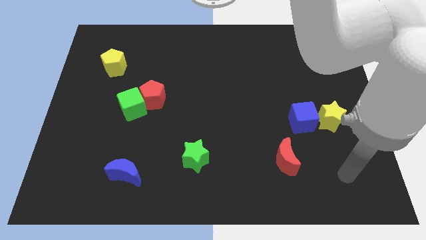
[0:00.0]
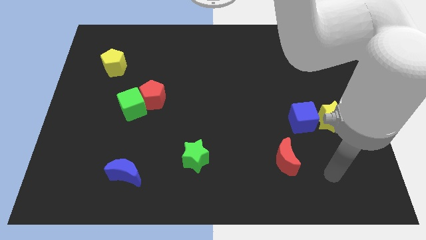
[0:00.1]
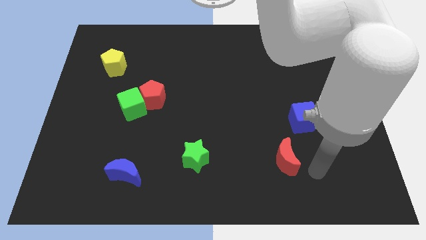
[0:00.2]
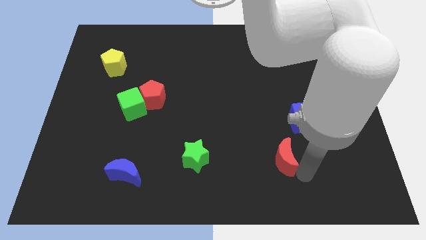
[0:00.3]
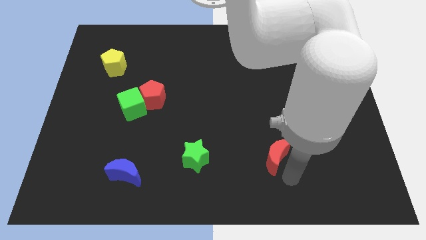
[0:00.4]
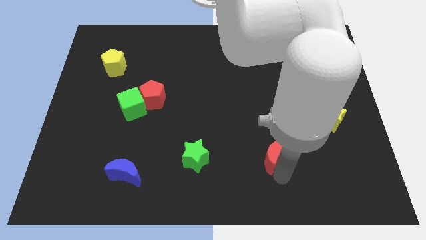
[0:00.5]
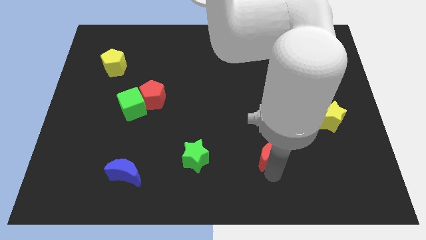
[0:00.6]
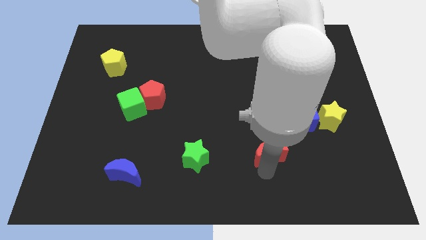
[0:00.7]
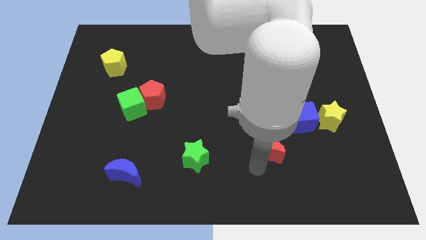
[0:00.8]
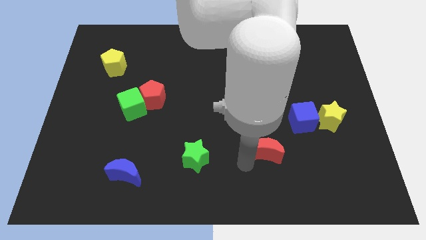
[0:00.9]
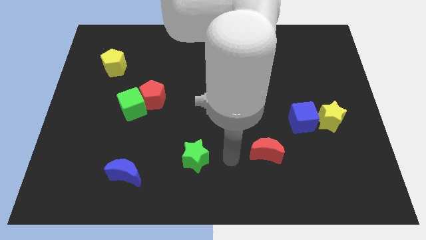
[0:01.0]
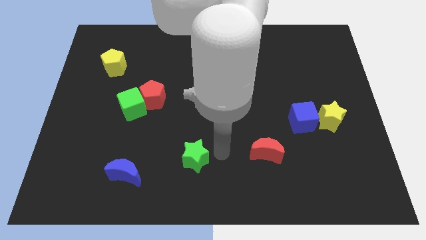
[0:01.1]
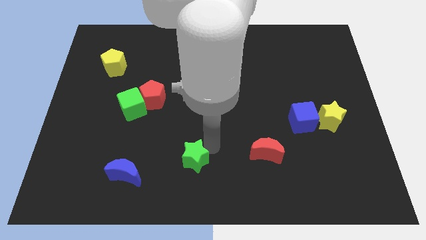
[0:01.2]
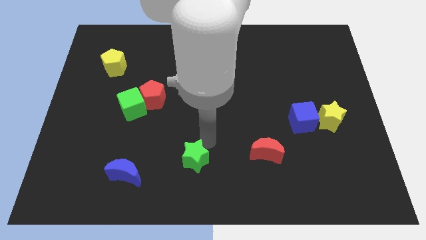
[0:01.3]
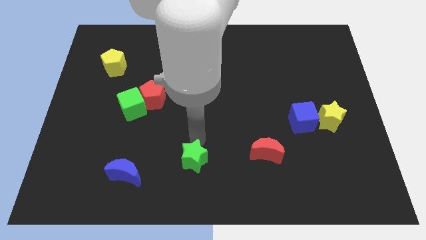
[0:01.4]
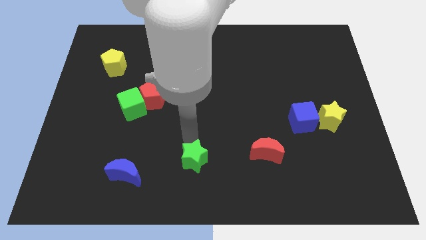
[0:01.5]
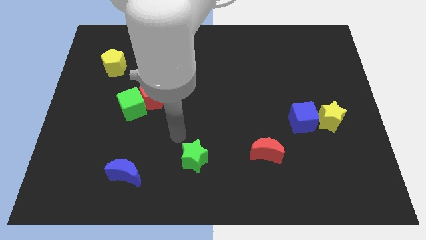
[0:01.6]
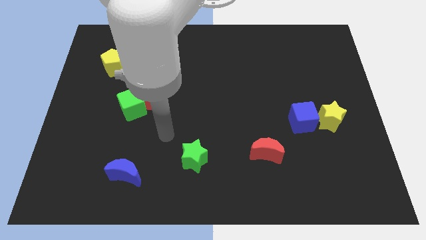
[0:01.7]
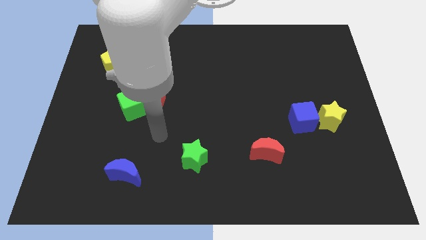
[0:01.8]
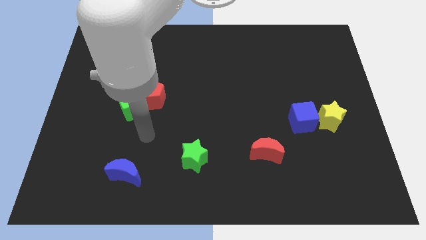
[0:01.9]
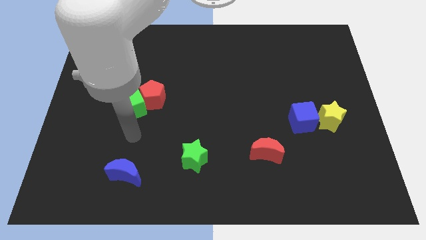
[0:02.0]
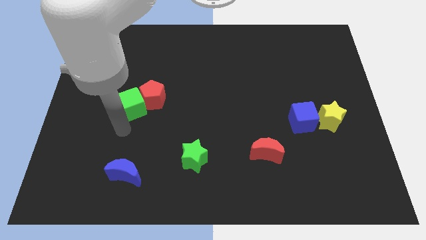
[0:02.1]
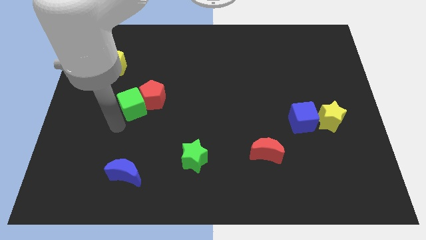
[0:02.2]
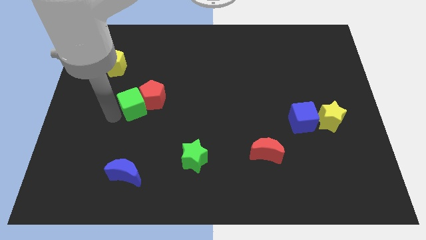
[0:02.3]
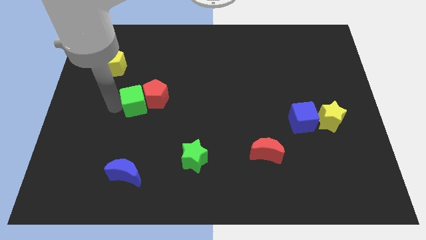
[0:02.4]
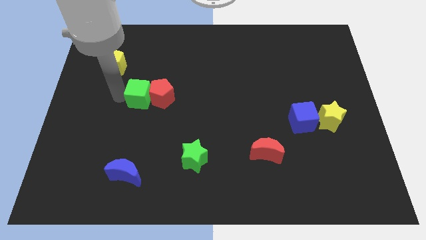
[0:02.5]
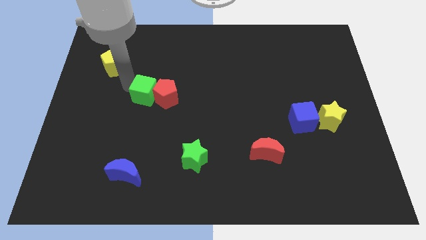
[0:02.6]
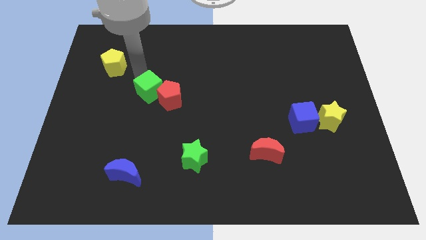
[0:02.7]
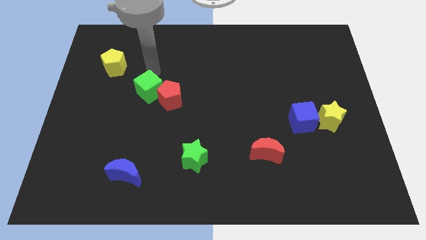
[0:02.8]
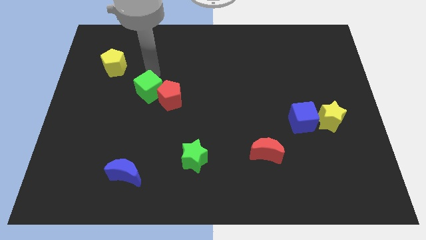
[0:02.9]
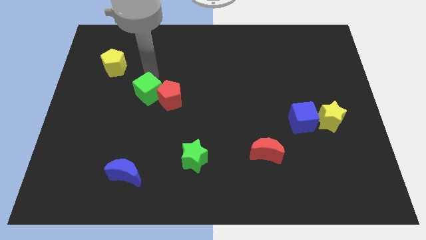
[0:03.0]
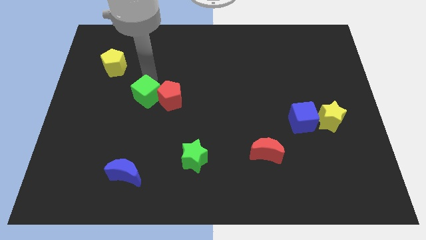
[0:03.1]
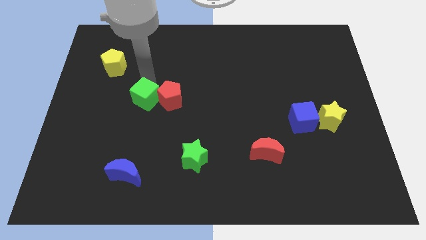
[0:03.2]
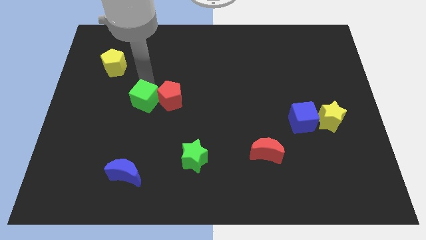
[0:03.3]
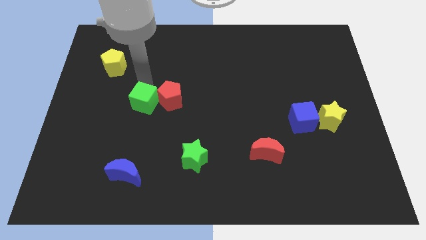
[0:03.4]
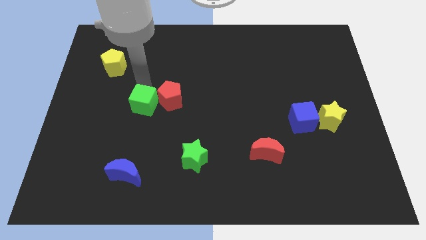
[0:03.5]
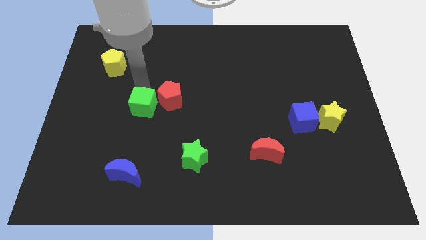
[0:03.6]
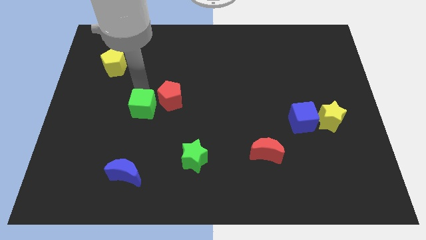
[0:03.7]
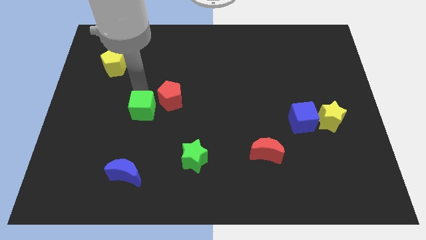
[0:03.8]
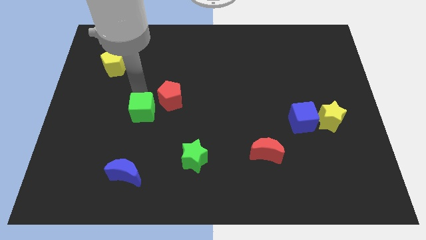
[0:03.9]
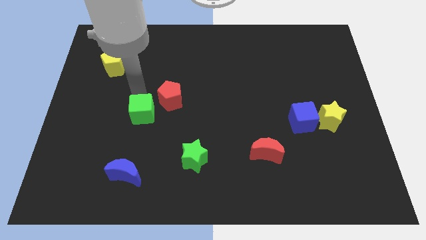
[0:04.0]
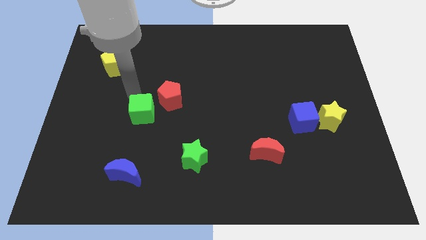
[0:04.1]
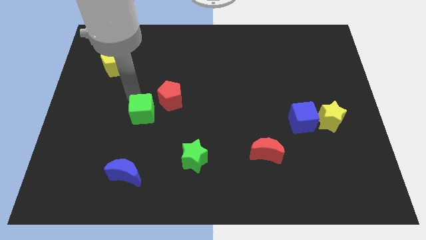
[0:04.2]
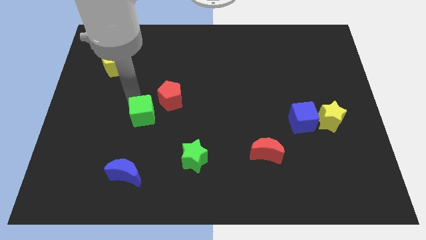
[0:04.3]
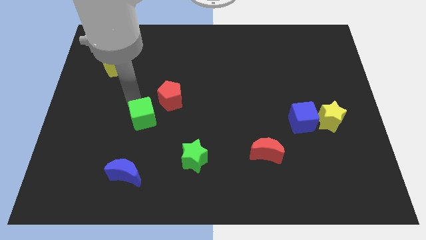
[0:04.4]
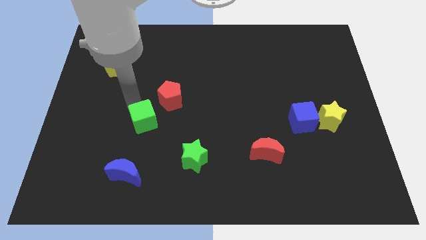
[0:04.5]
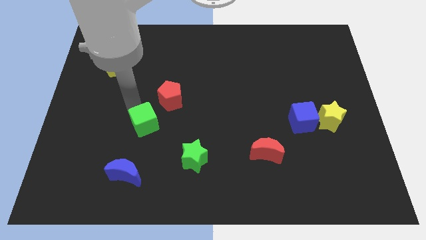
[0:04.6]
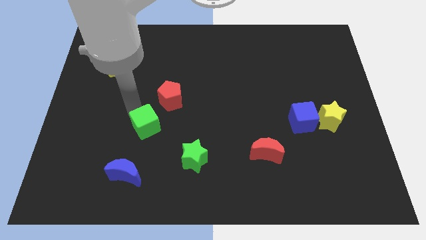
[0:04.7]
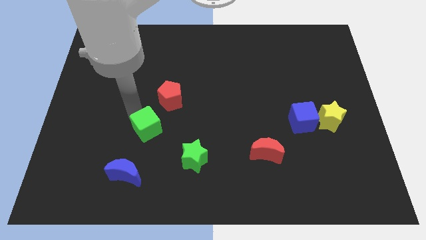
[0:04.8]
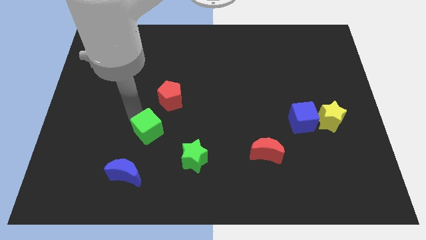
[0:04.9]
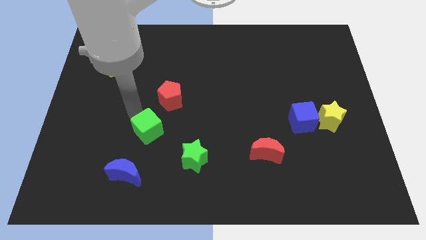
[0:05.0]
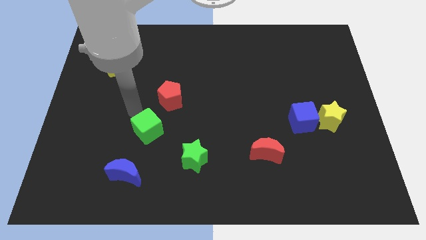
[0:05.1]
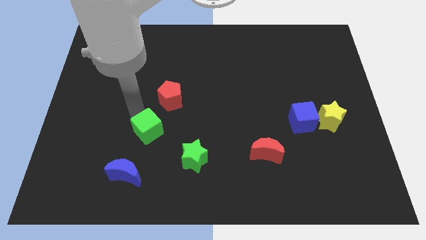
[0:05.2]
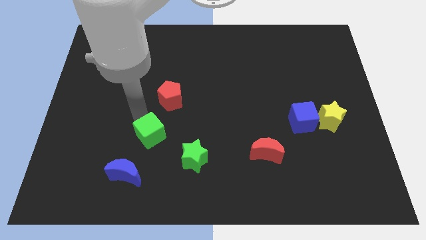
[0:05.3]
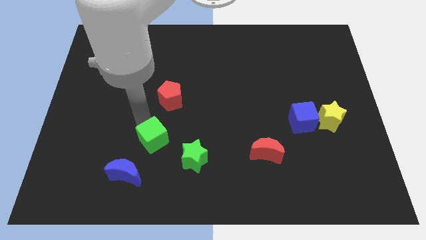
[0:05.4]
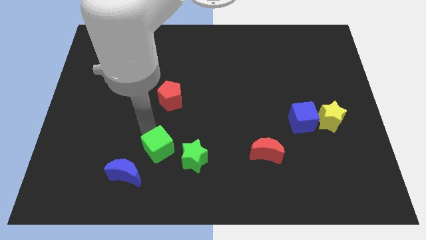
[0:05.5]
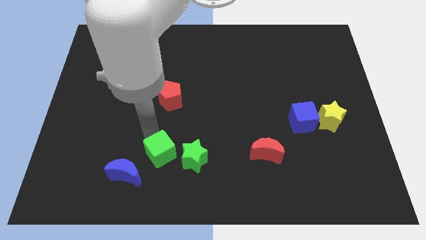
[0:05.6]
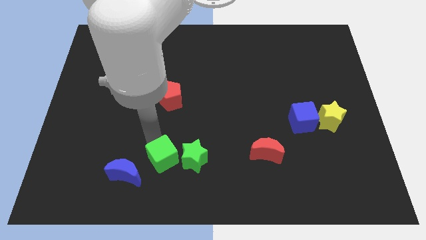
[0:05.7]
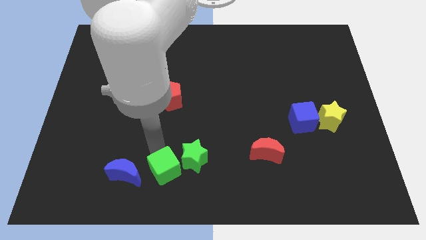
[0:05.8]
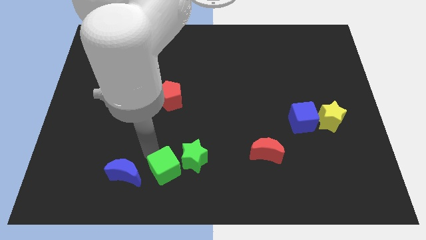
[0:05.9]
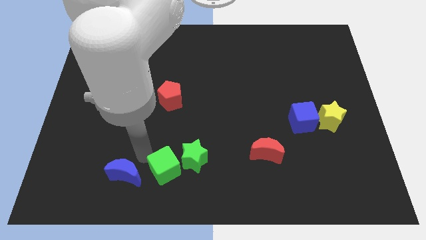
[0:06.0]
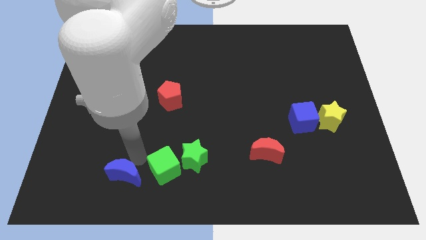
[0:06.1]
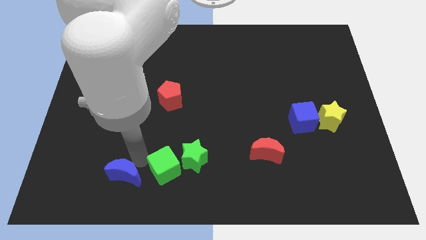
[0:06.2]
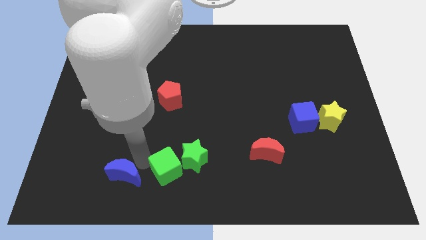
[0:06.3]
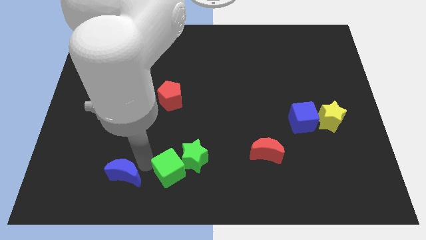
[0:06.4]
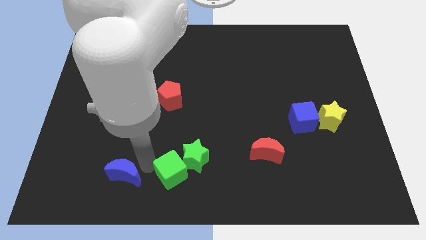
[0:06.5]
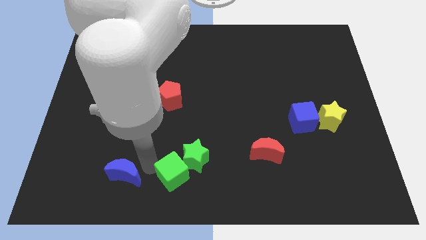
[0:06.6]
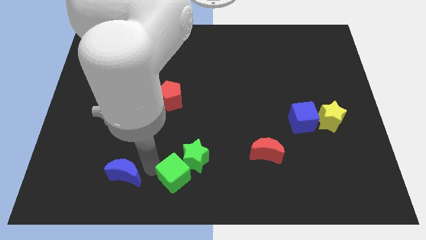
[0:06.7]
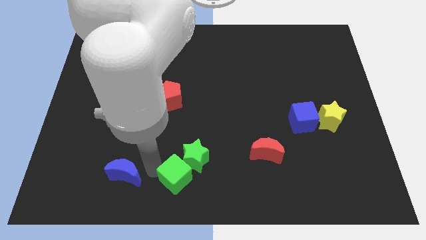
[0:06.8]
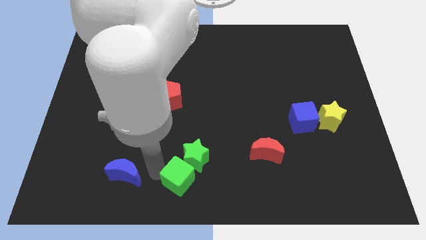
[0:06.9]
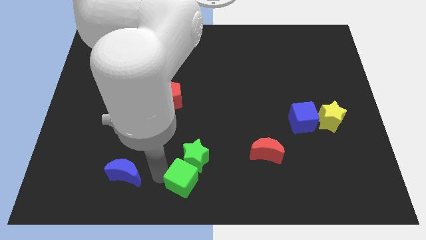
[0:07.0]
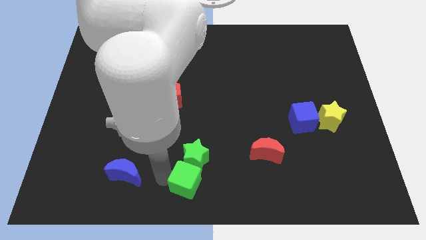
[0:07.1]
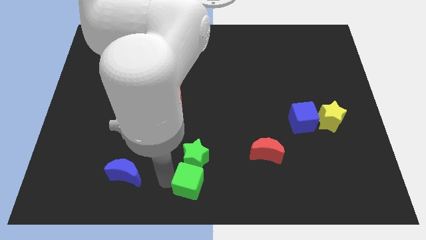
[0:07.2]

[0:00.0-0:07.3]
move the green cube to the bottom right of the green star

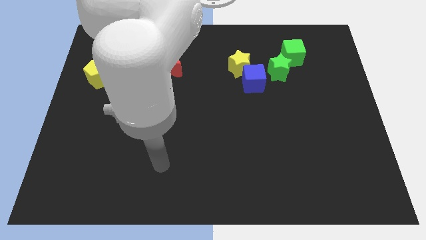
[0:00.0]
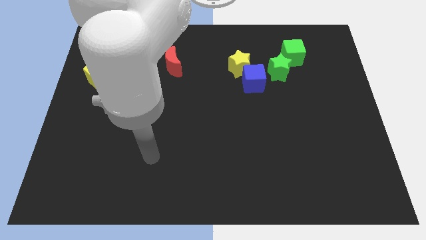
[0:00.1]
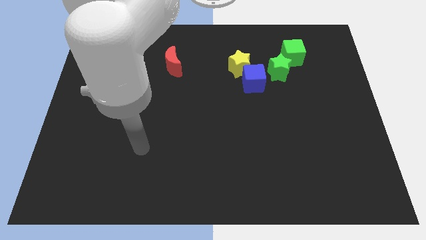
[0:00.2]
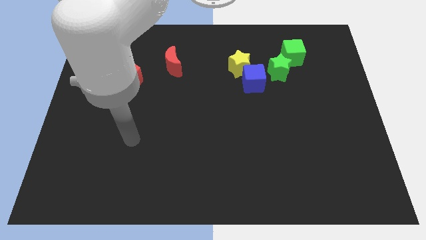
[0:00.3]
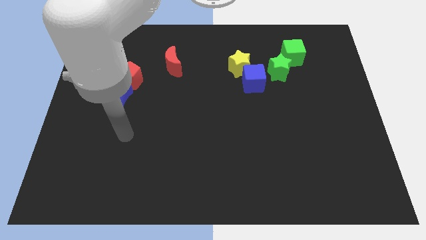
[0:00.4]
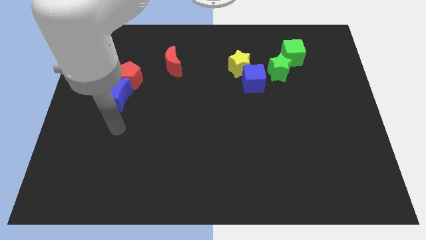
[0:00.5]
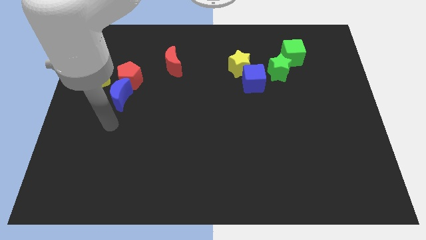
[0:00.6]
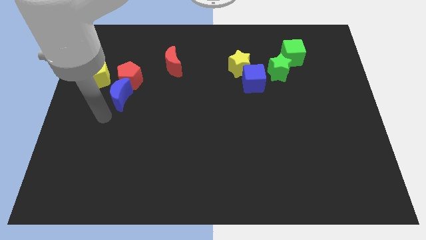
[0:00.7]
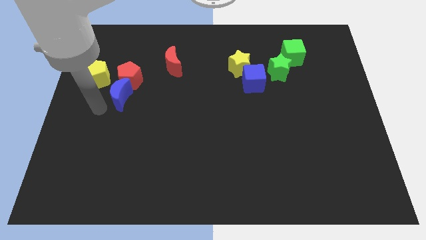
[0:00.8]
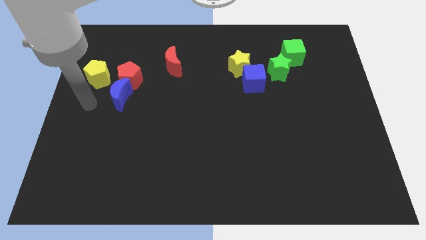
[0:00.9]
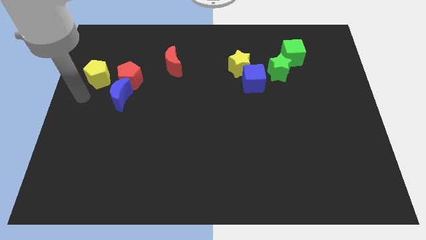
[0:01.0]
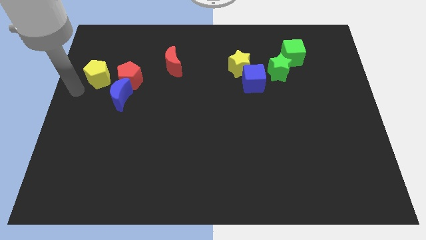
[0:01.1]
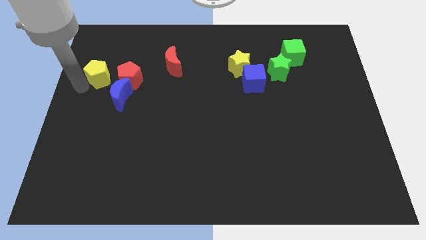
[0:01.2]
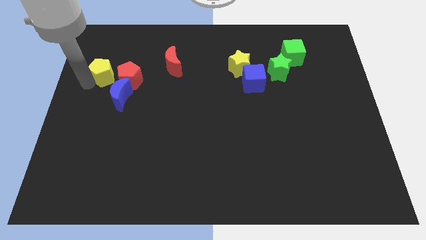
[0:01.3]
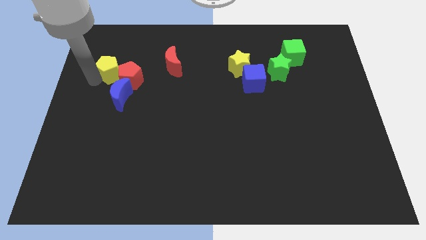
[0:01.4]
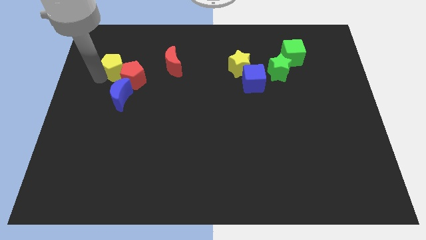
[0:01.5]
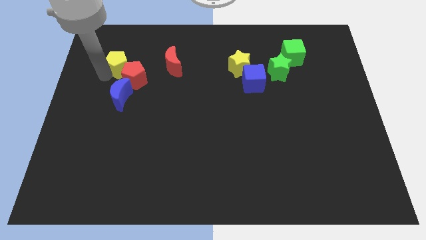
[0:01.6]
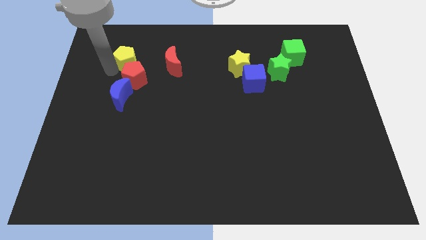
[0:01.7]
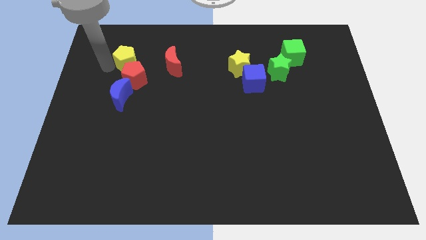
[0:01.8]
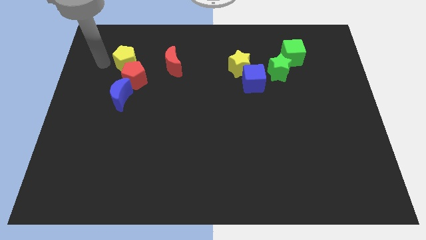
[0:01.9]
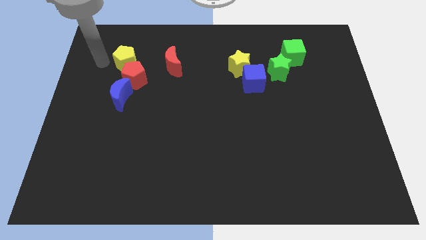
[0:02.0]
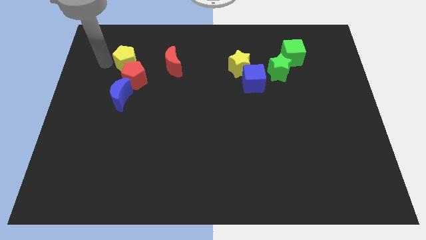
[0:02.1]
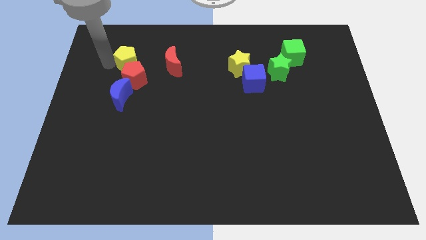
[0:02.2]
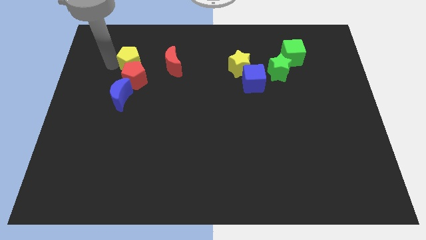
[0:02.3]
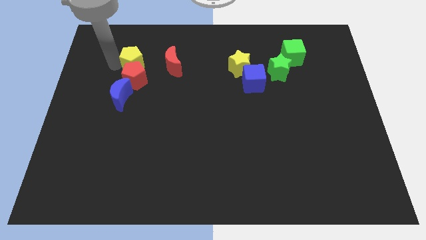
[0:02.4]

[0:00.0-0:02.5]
put the yellow pentagon to the top right of the red pentagon
